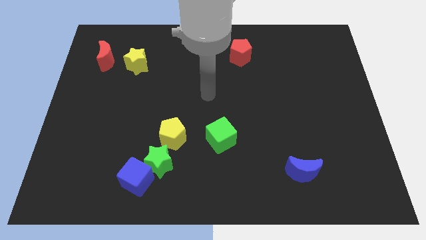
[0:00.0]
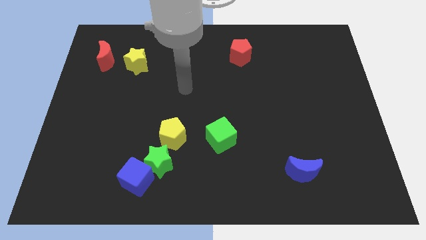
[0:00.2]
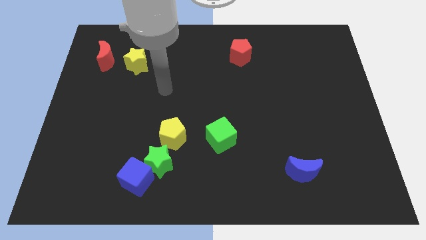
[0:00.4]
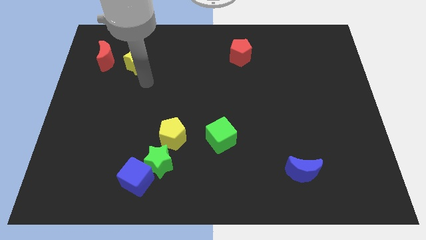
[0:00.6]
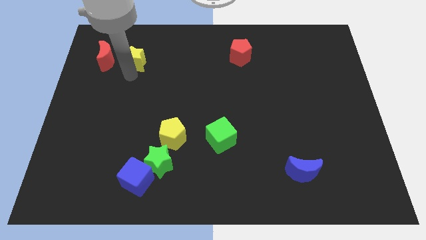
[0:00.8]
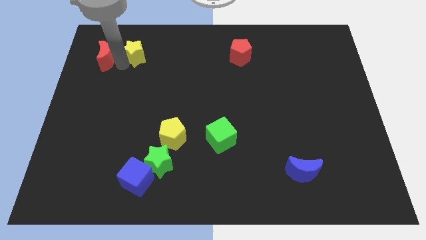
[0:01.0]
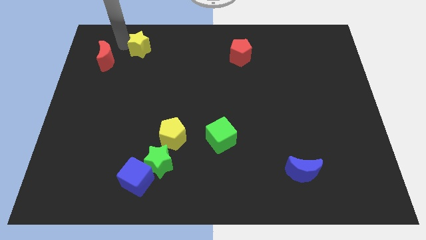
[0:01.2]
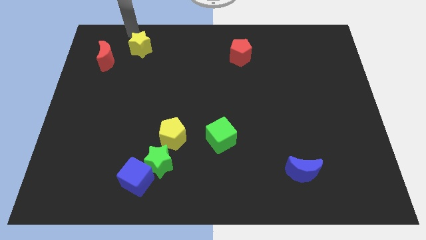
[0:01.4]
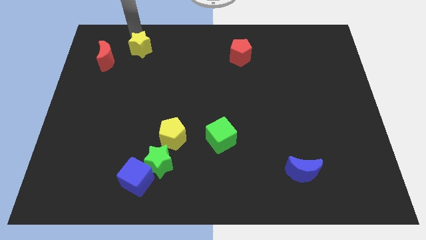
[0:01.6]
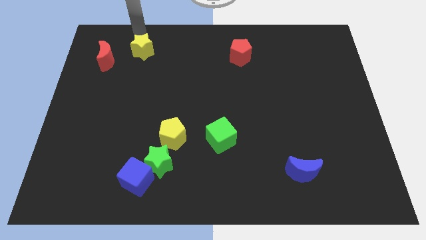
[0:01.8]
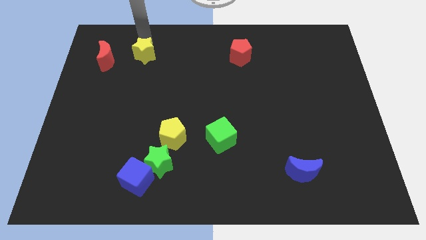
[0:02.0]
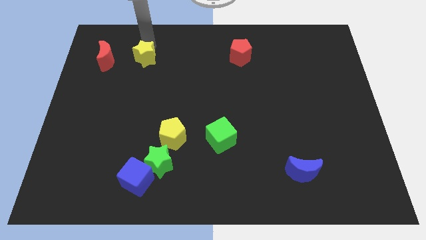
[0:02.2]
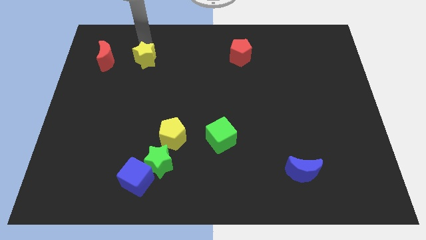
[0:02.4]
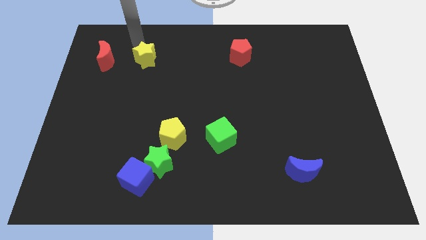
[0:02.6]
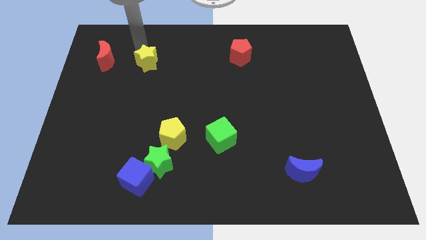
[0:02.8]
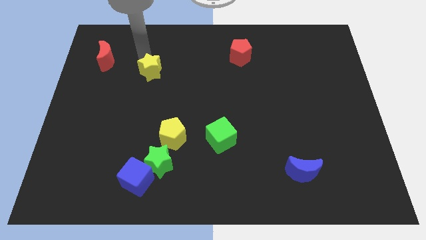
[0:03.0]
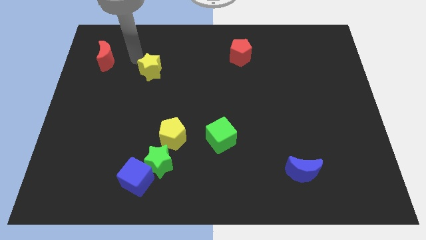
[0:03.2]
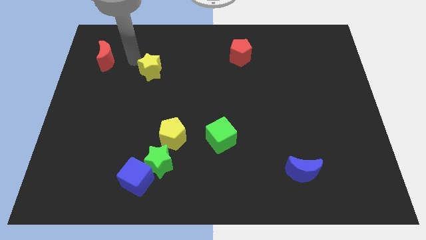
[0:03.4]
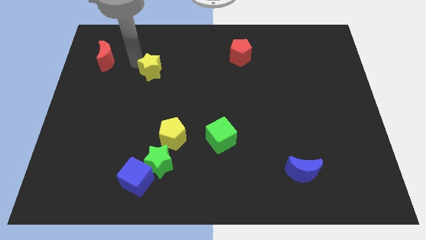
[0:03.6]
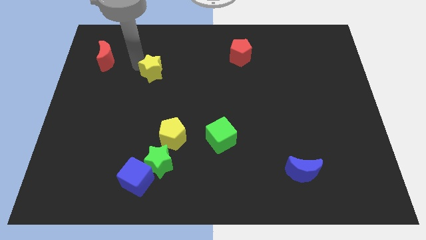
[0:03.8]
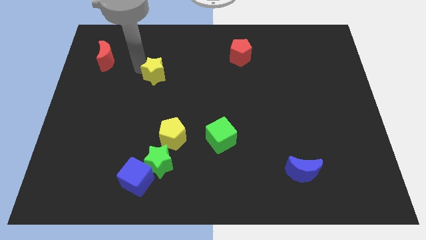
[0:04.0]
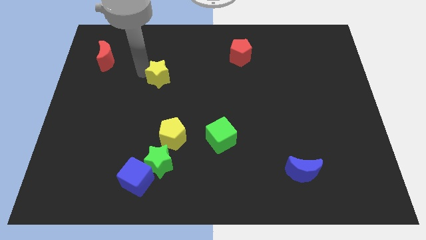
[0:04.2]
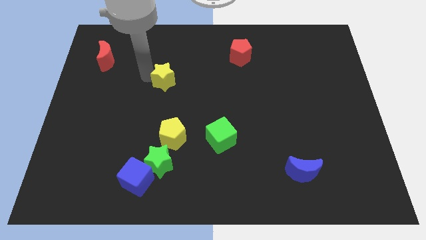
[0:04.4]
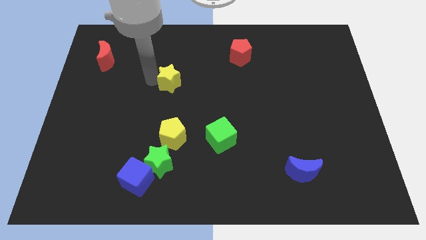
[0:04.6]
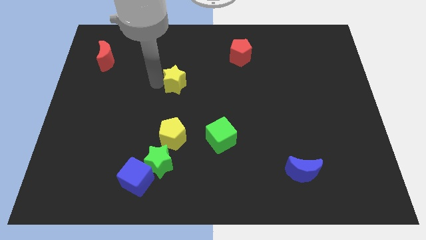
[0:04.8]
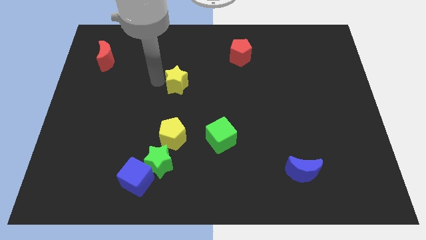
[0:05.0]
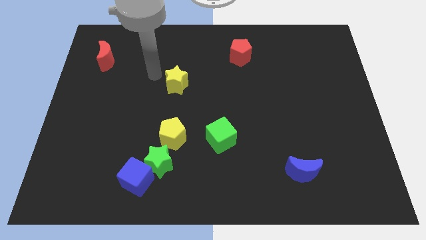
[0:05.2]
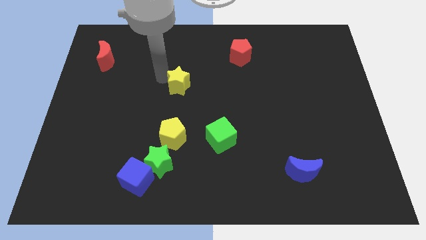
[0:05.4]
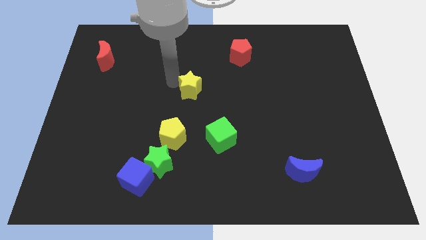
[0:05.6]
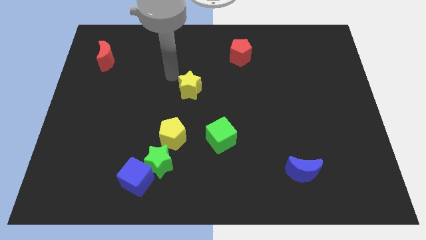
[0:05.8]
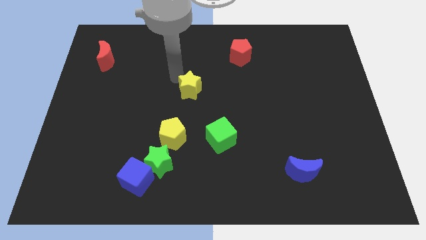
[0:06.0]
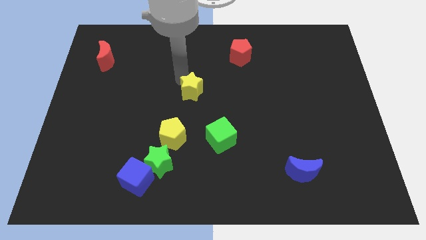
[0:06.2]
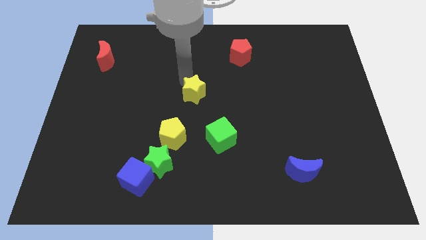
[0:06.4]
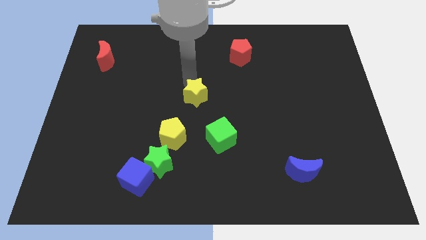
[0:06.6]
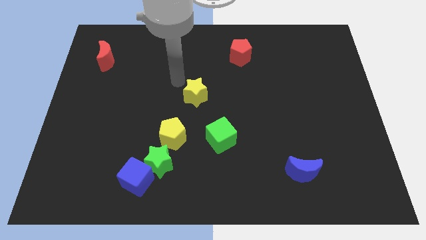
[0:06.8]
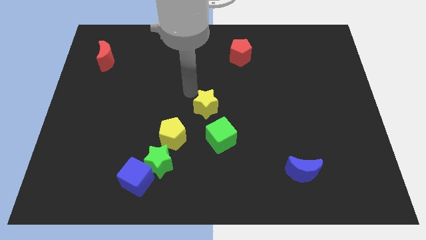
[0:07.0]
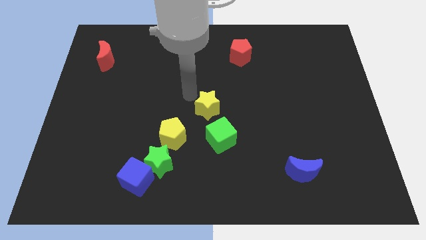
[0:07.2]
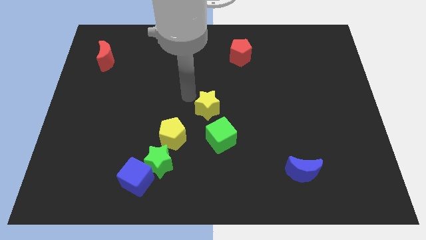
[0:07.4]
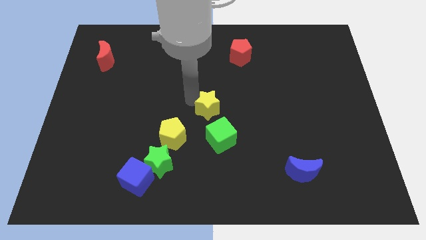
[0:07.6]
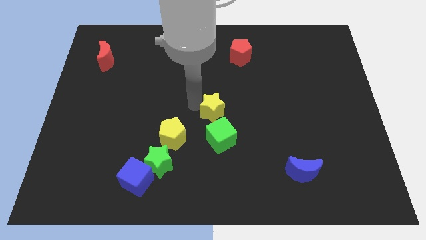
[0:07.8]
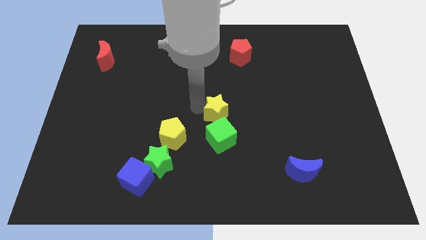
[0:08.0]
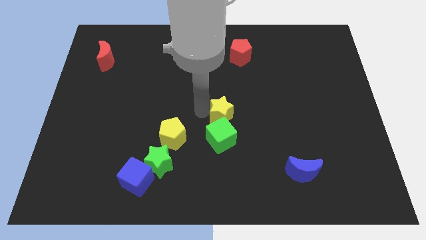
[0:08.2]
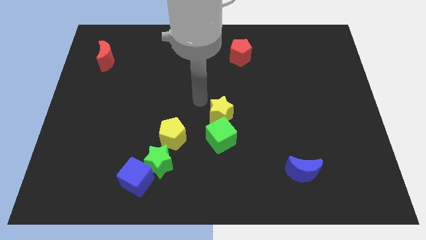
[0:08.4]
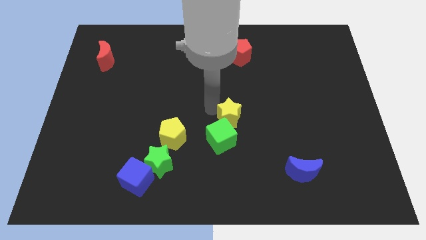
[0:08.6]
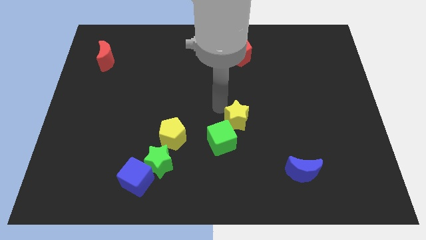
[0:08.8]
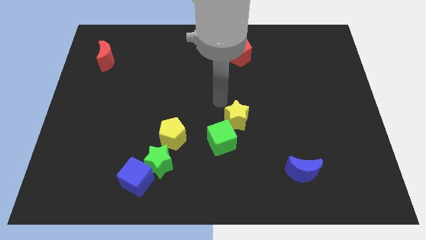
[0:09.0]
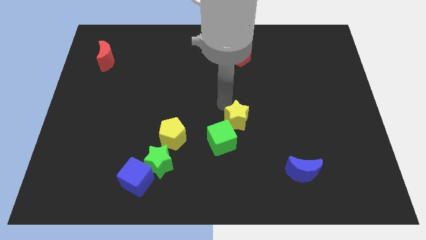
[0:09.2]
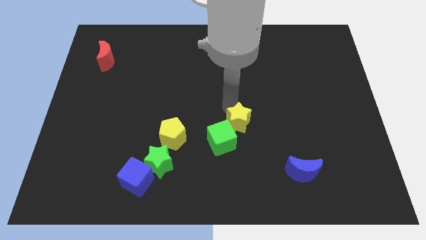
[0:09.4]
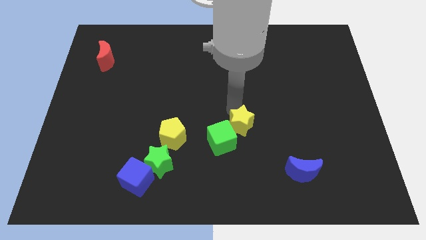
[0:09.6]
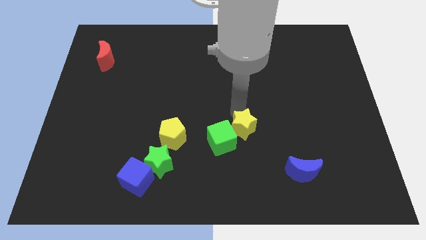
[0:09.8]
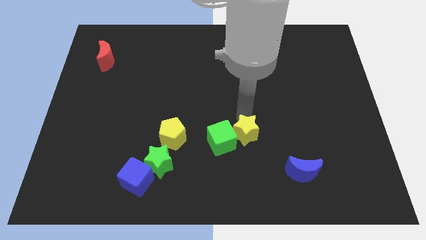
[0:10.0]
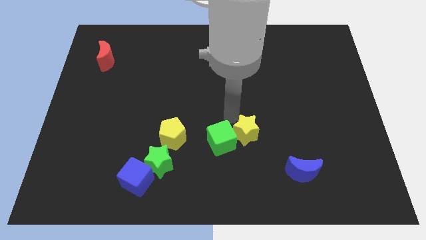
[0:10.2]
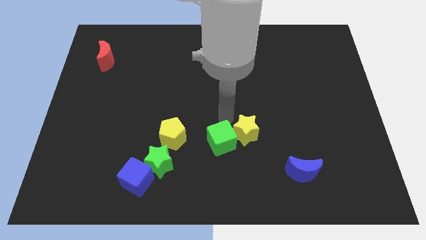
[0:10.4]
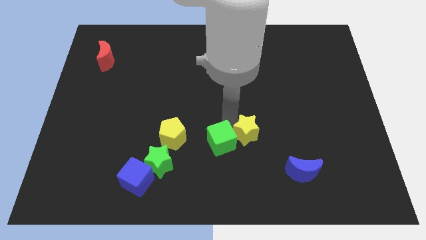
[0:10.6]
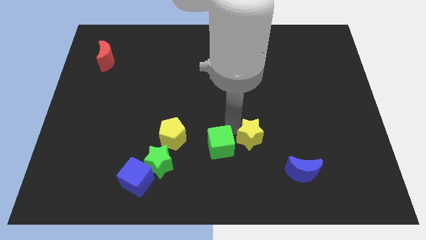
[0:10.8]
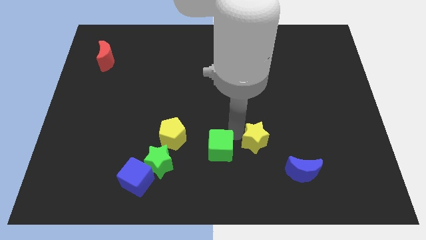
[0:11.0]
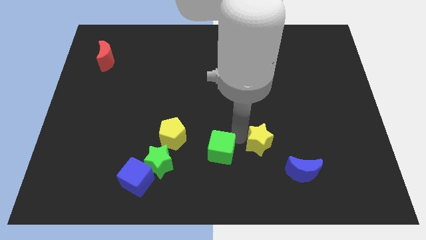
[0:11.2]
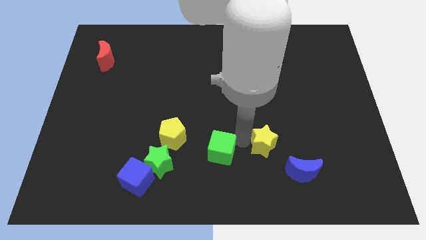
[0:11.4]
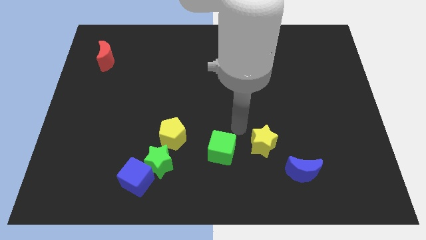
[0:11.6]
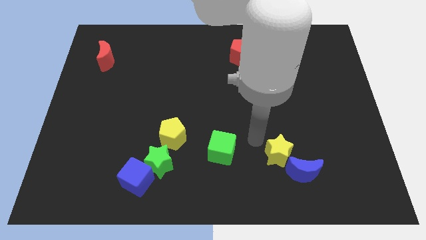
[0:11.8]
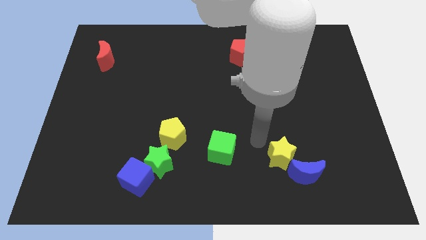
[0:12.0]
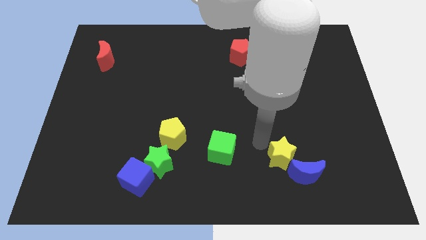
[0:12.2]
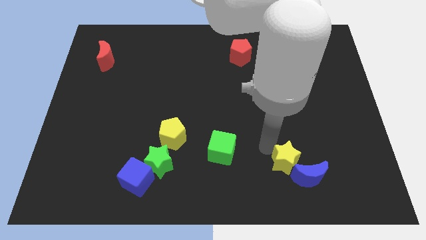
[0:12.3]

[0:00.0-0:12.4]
slide the yellow star to the blue moon

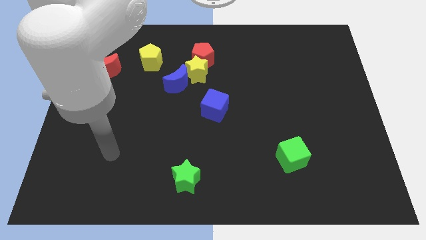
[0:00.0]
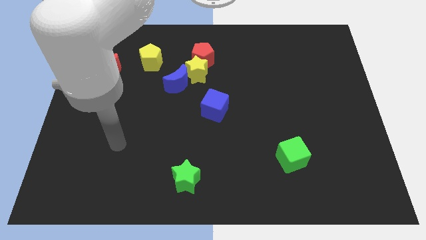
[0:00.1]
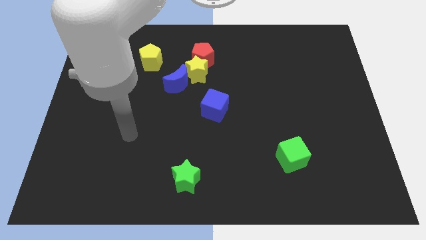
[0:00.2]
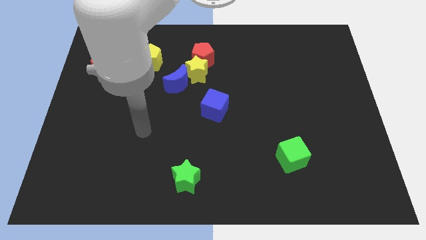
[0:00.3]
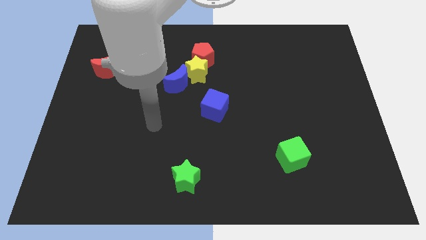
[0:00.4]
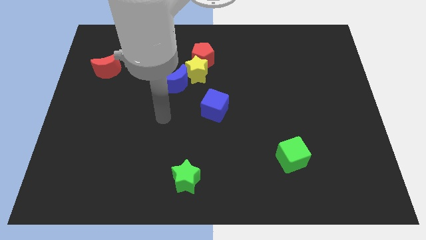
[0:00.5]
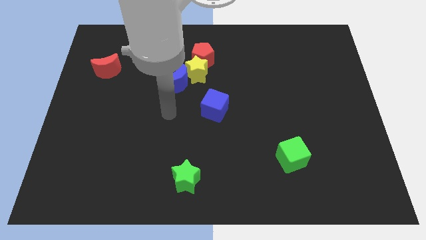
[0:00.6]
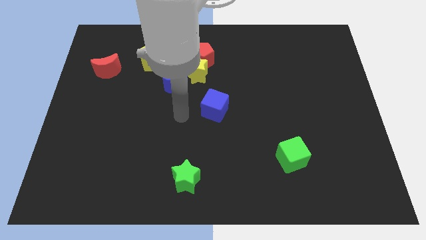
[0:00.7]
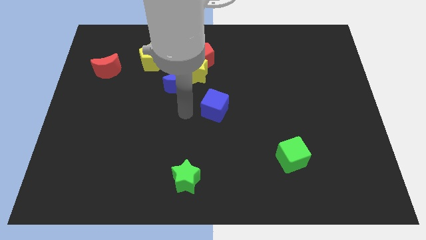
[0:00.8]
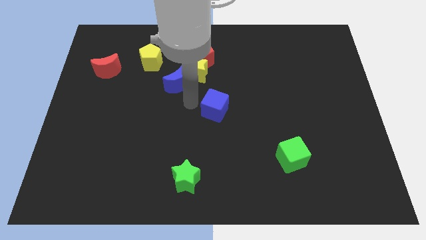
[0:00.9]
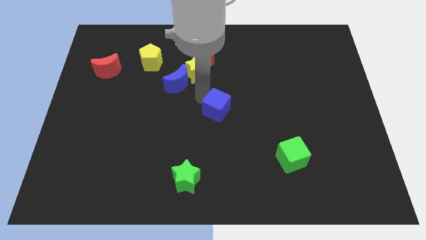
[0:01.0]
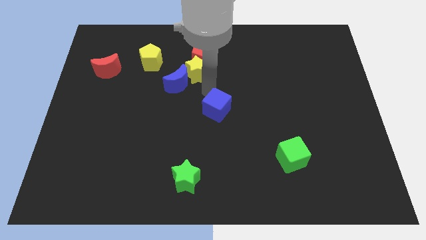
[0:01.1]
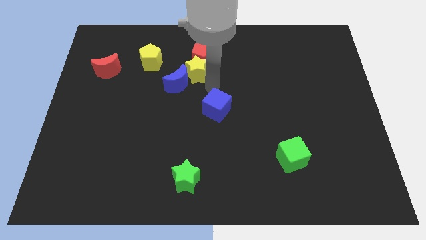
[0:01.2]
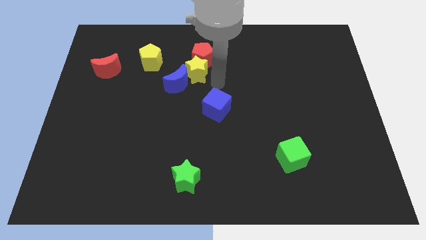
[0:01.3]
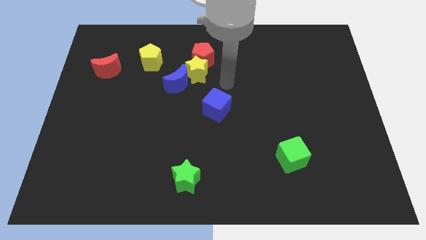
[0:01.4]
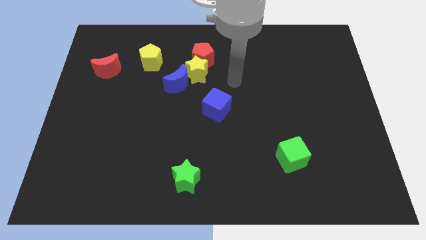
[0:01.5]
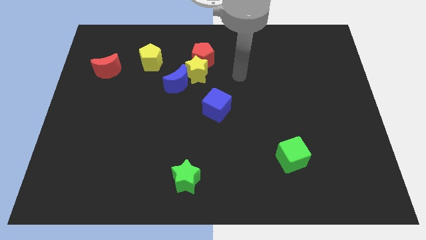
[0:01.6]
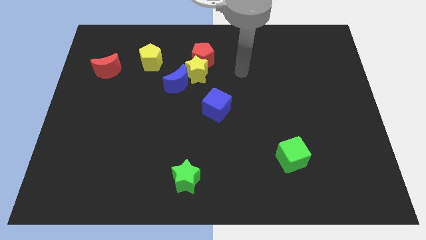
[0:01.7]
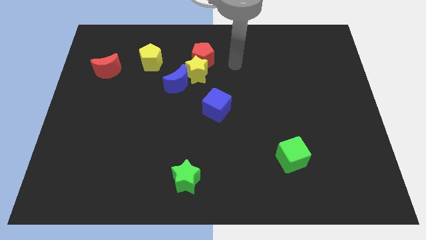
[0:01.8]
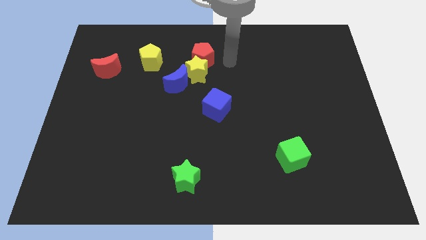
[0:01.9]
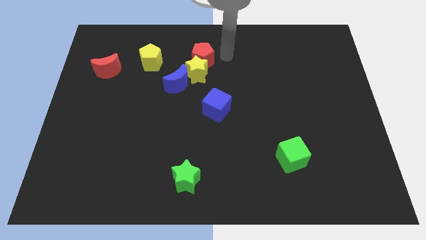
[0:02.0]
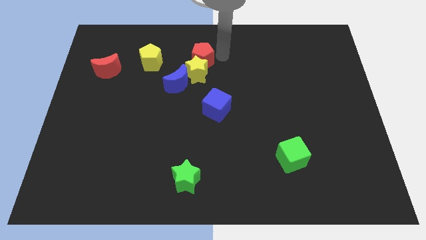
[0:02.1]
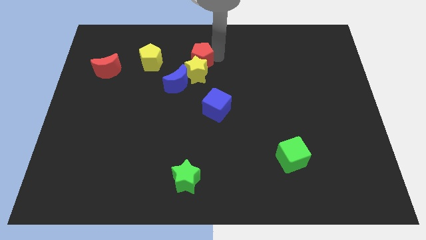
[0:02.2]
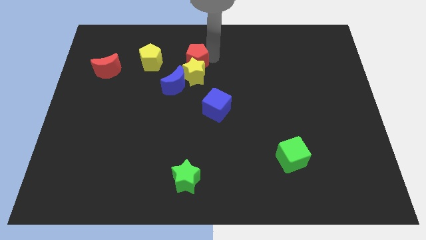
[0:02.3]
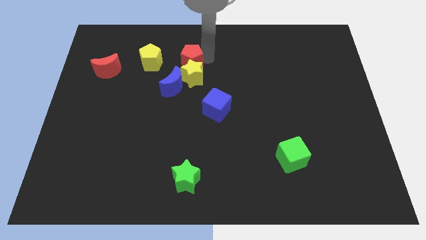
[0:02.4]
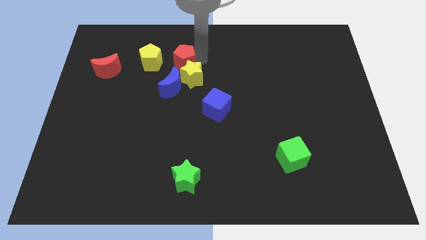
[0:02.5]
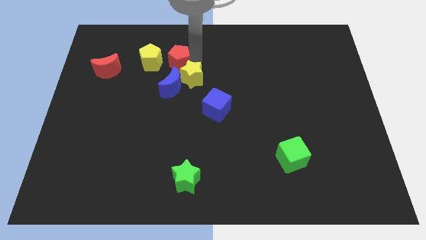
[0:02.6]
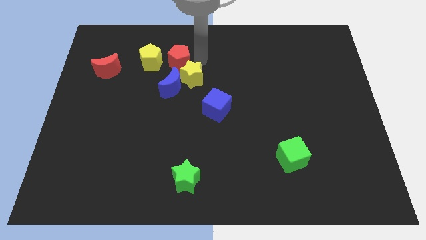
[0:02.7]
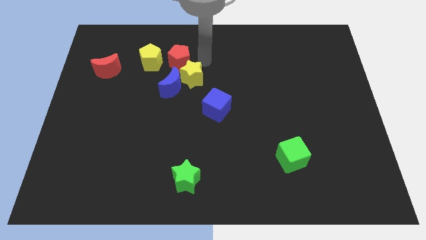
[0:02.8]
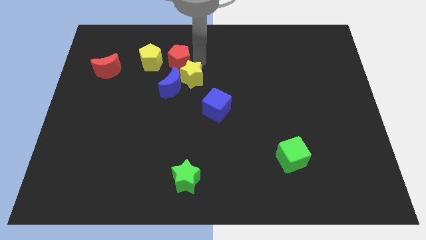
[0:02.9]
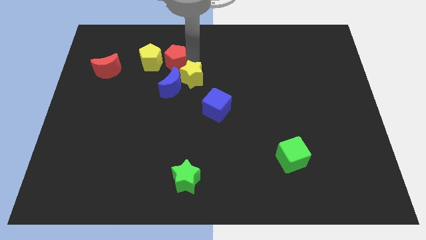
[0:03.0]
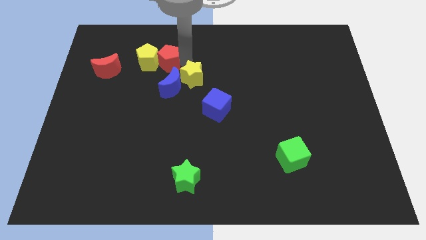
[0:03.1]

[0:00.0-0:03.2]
put the red pentagon close to the yellow pentagon
